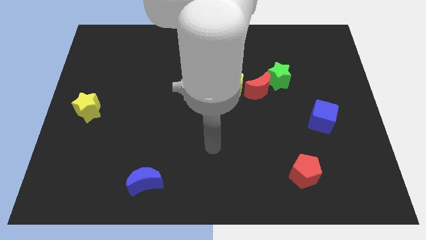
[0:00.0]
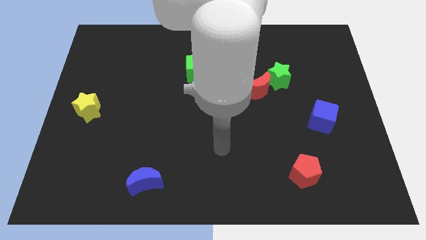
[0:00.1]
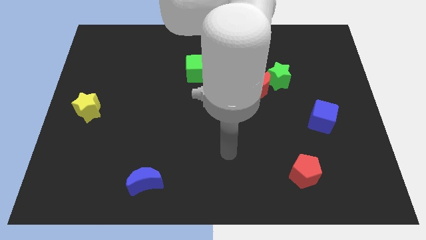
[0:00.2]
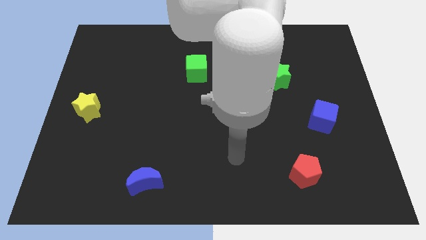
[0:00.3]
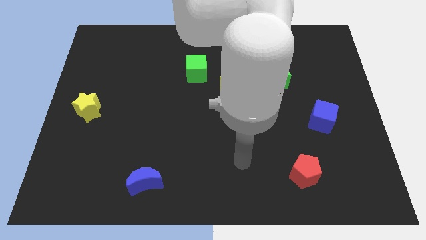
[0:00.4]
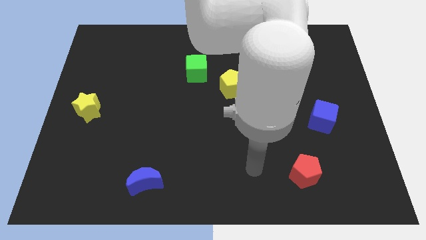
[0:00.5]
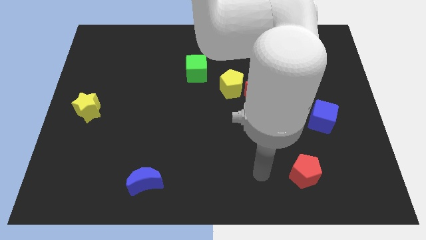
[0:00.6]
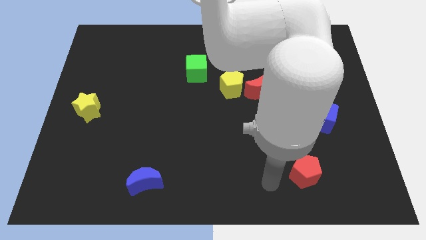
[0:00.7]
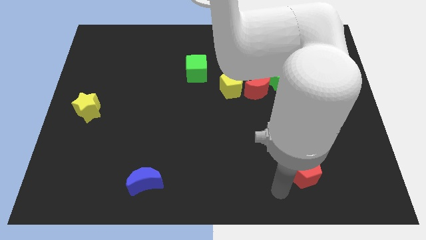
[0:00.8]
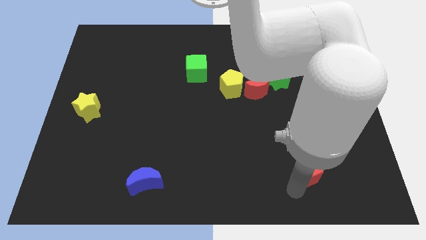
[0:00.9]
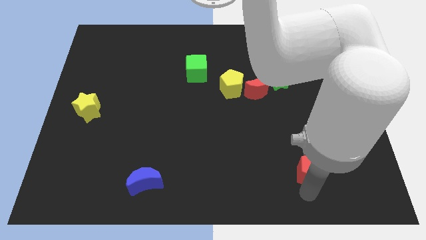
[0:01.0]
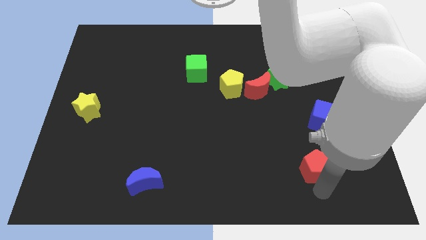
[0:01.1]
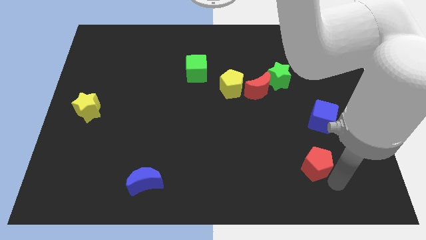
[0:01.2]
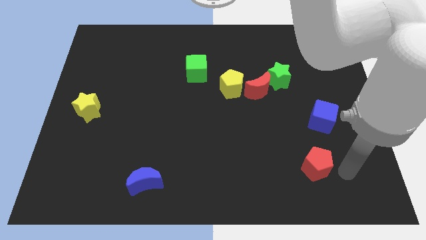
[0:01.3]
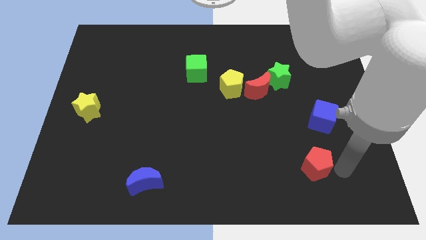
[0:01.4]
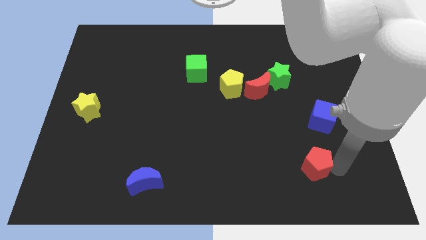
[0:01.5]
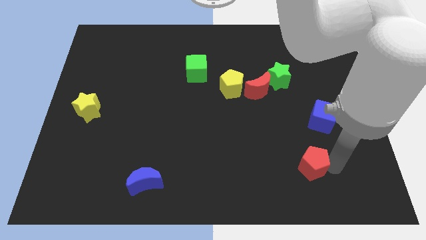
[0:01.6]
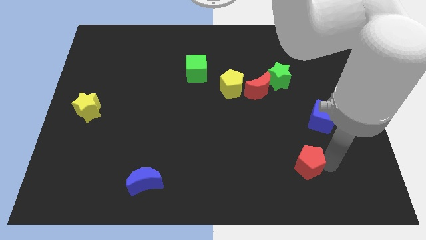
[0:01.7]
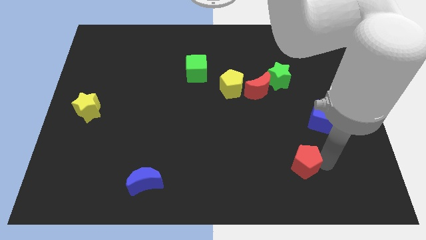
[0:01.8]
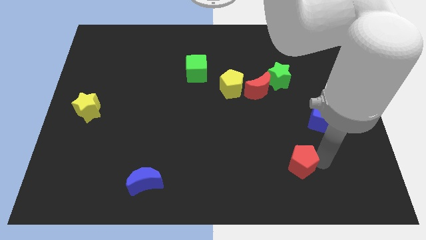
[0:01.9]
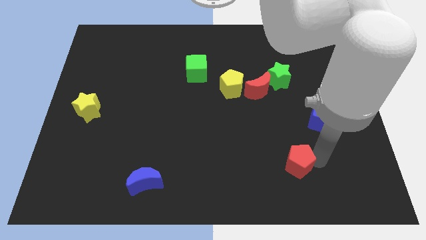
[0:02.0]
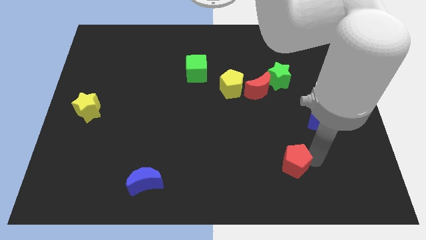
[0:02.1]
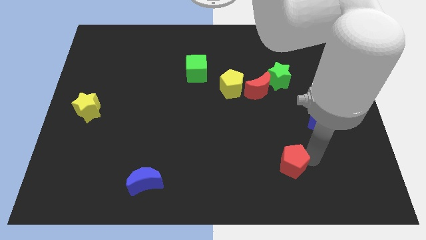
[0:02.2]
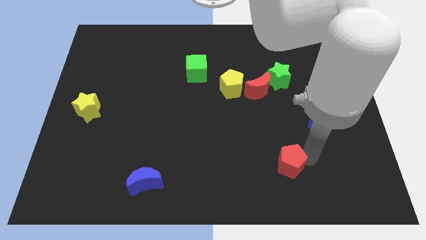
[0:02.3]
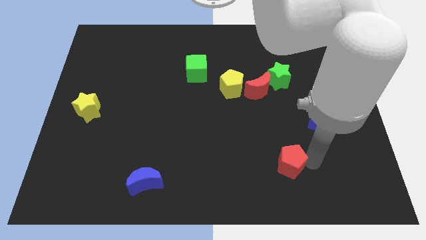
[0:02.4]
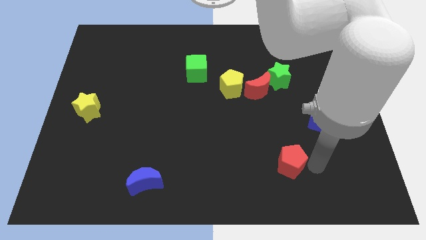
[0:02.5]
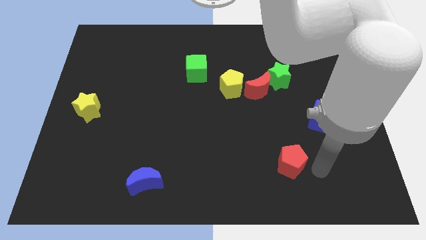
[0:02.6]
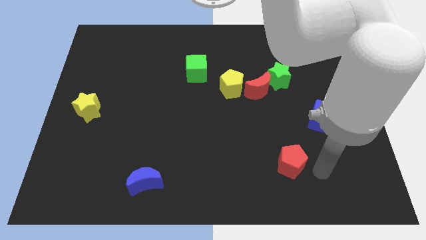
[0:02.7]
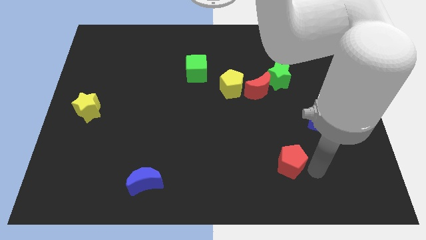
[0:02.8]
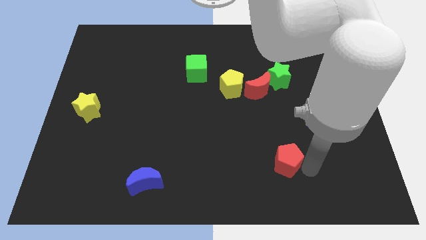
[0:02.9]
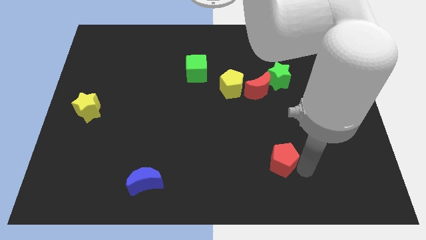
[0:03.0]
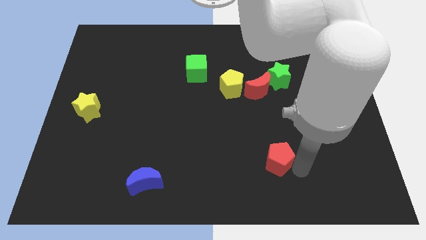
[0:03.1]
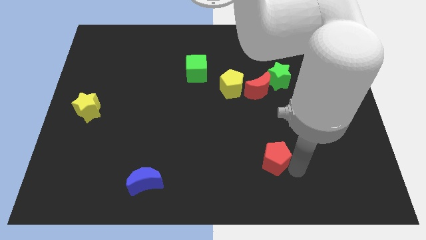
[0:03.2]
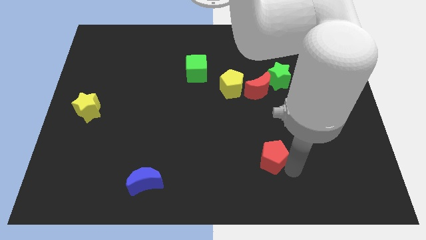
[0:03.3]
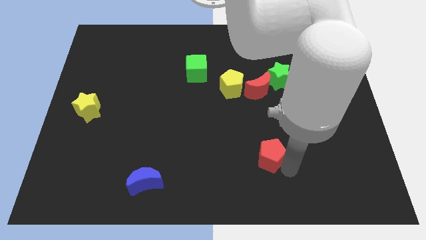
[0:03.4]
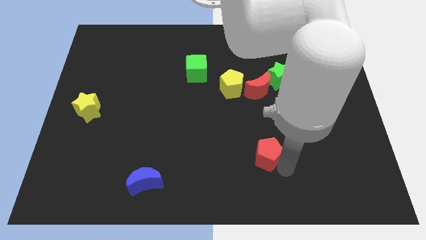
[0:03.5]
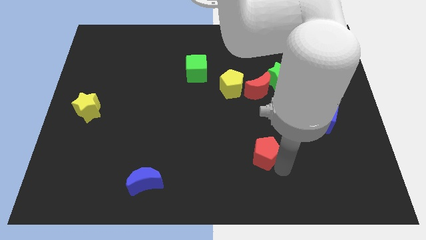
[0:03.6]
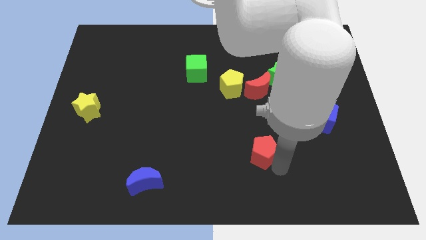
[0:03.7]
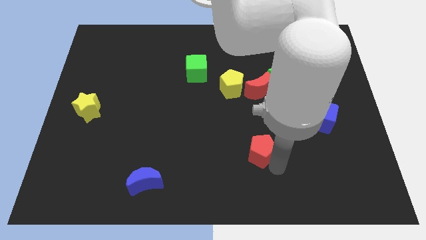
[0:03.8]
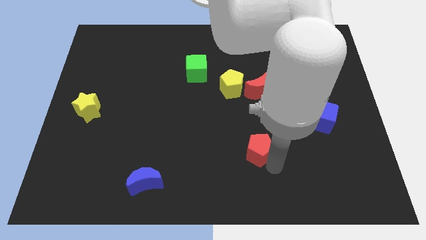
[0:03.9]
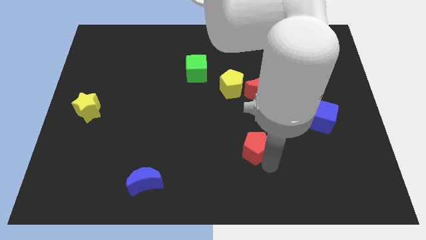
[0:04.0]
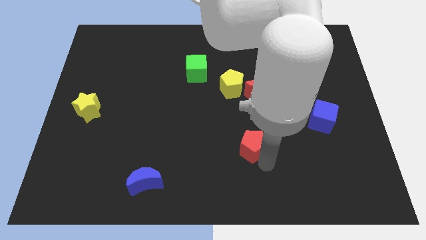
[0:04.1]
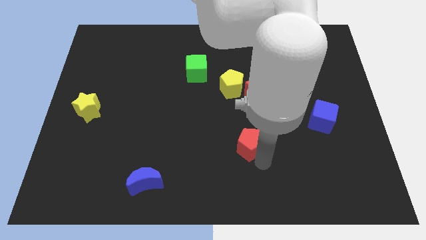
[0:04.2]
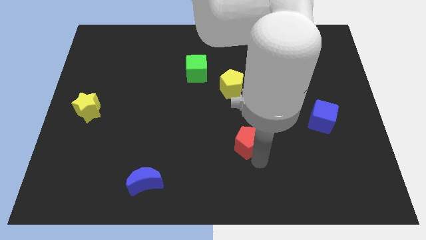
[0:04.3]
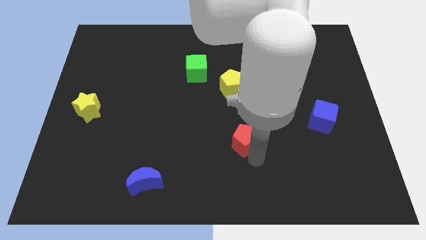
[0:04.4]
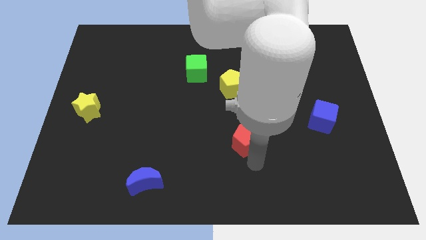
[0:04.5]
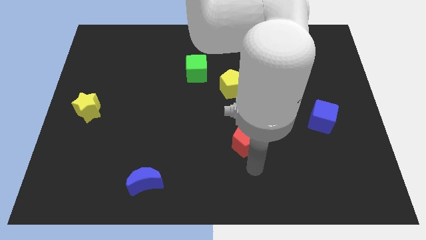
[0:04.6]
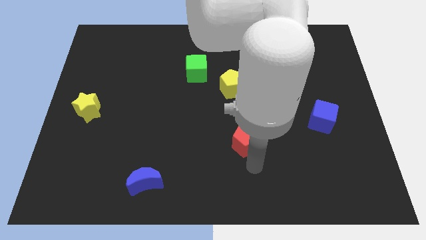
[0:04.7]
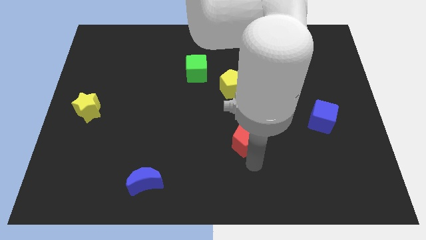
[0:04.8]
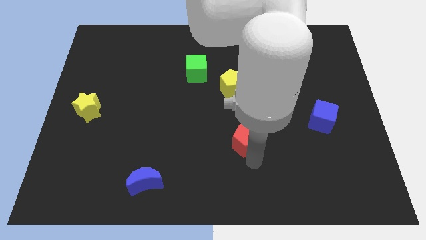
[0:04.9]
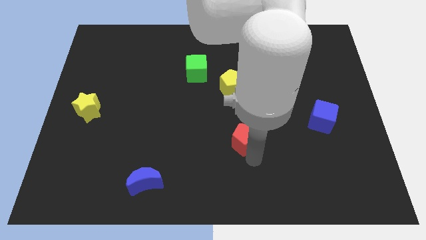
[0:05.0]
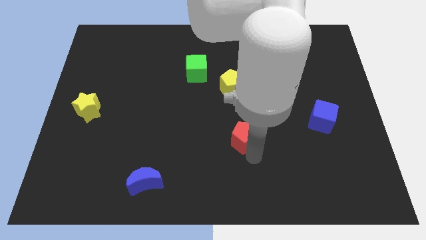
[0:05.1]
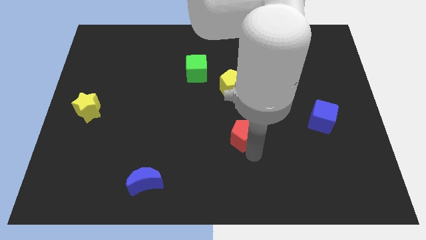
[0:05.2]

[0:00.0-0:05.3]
slide the red pentagon to the center

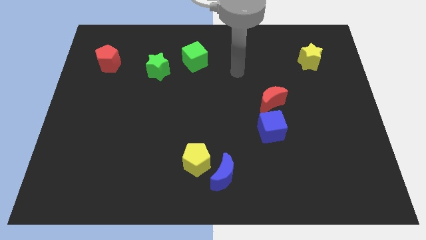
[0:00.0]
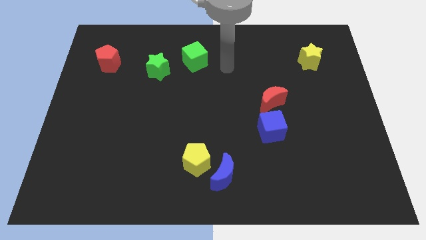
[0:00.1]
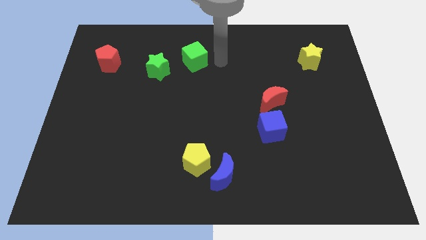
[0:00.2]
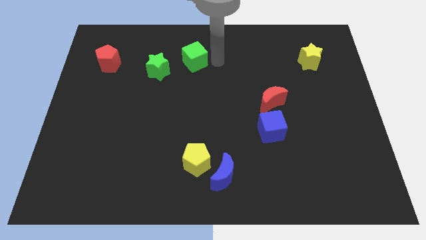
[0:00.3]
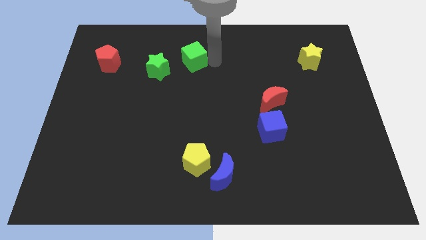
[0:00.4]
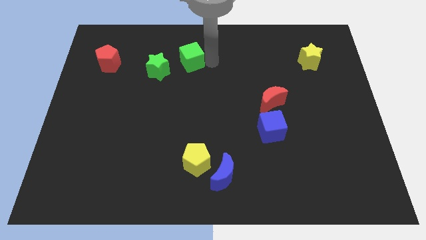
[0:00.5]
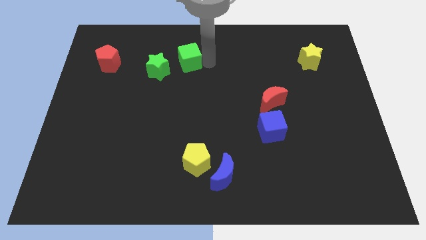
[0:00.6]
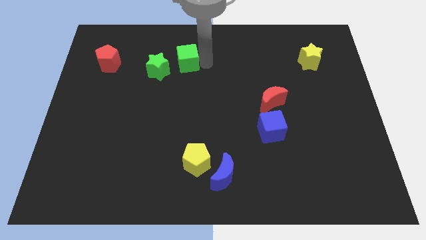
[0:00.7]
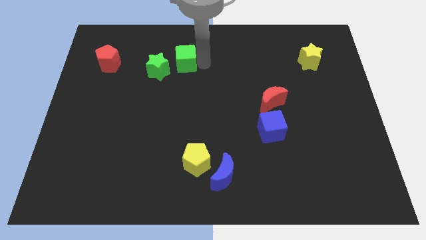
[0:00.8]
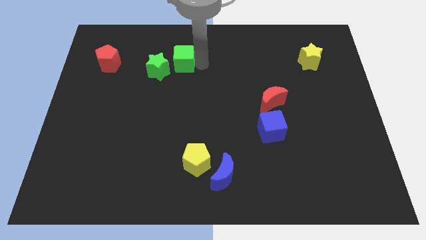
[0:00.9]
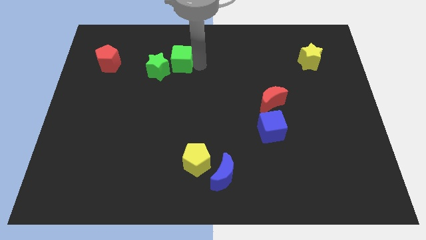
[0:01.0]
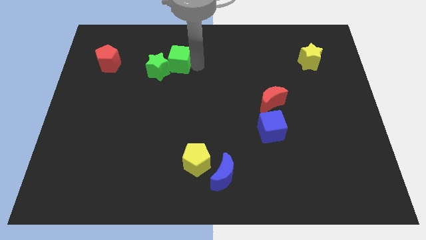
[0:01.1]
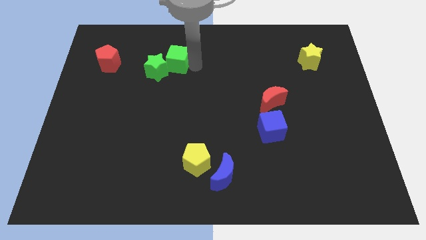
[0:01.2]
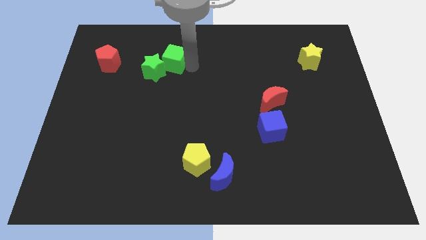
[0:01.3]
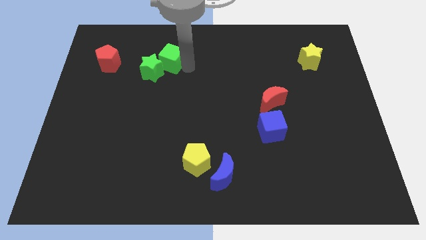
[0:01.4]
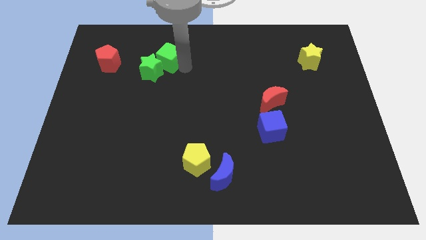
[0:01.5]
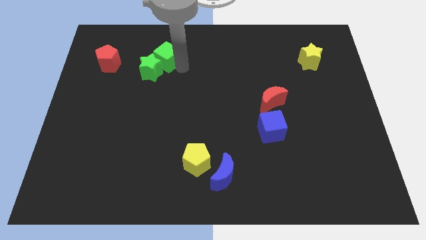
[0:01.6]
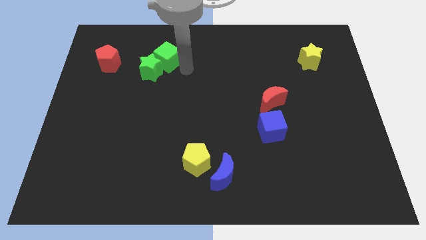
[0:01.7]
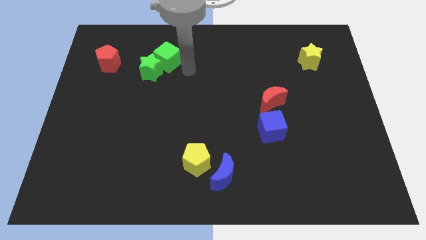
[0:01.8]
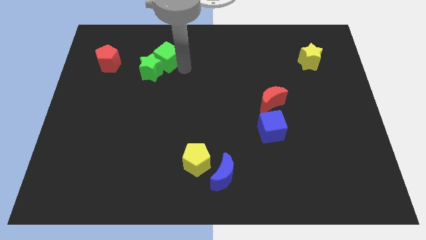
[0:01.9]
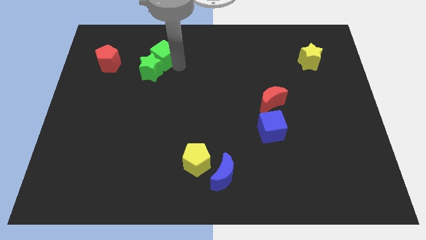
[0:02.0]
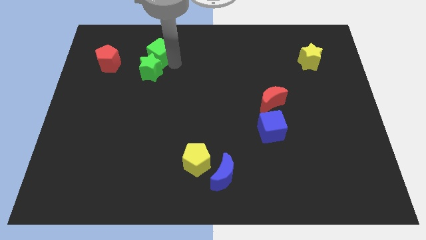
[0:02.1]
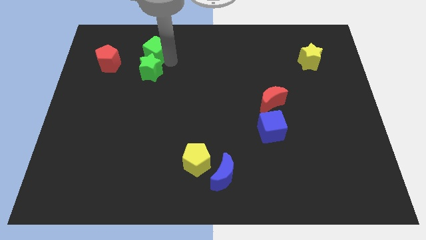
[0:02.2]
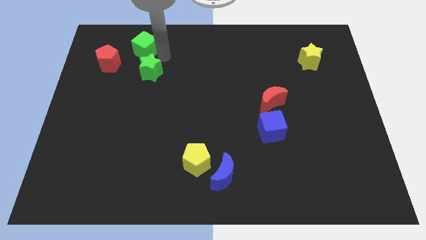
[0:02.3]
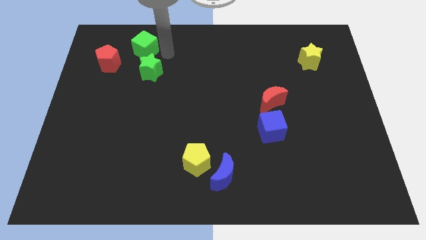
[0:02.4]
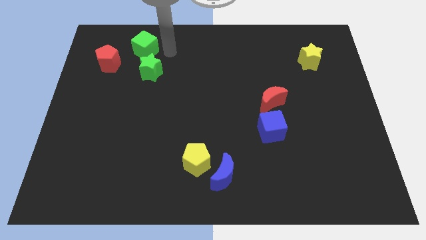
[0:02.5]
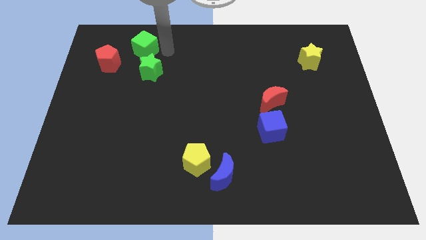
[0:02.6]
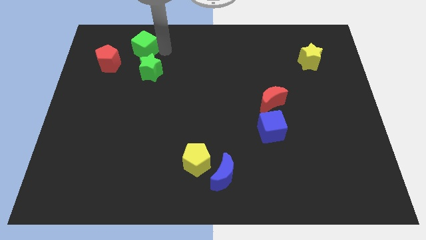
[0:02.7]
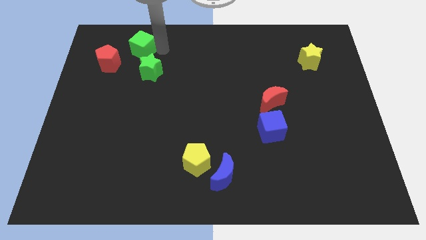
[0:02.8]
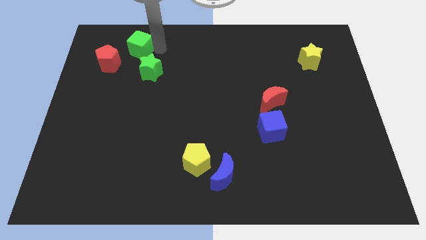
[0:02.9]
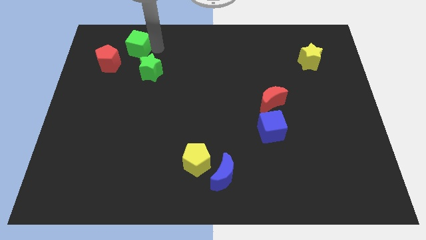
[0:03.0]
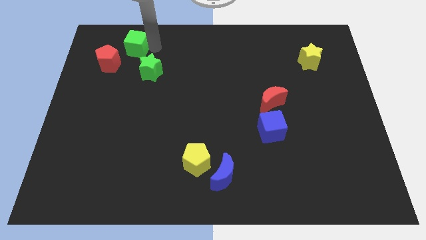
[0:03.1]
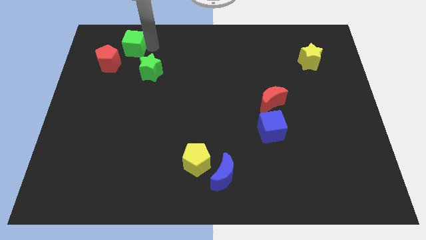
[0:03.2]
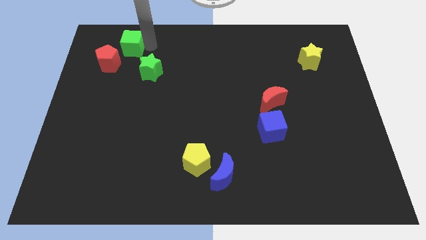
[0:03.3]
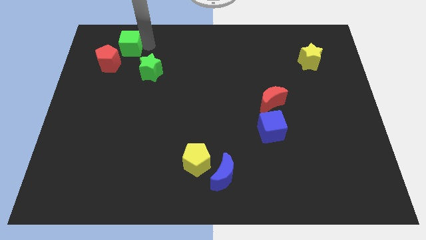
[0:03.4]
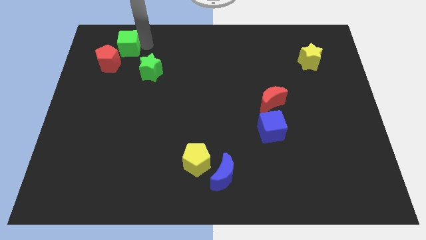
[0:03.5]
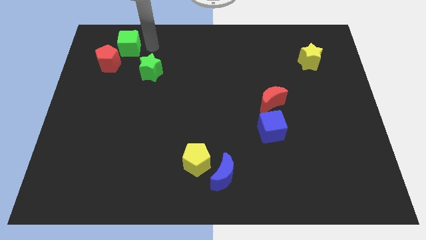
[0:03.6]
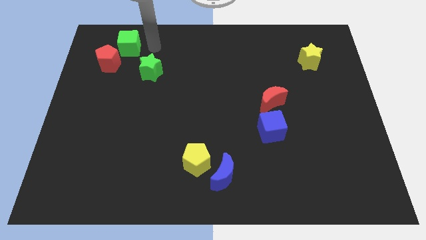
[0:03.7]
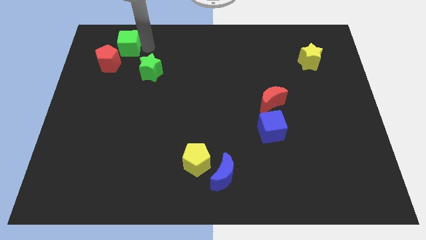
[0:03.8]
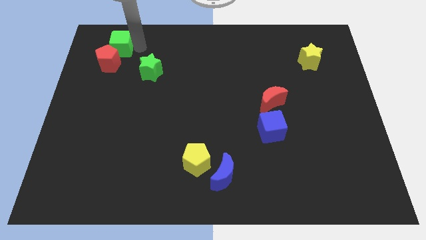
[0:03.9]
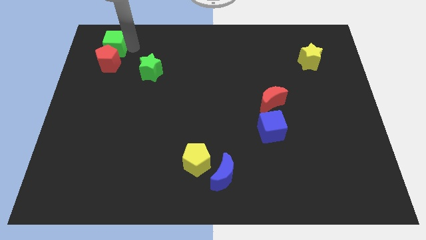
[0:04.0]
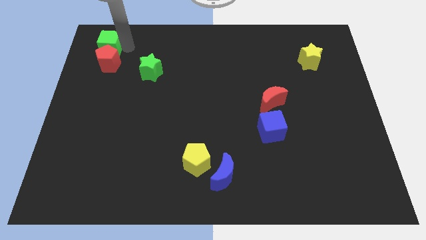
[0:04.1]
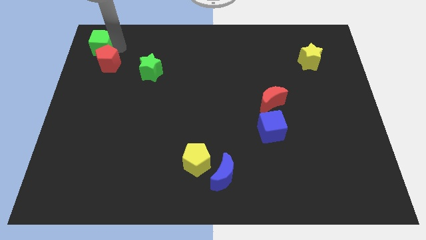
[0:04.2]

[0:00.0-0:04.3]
put the green cube to the top left
